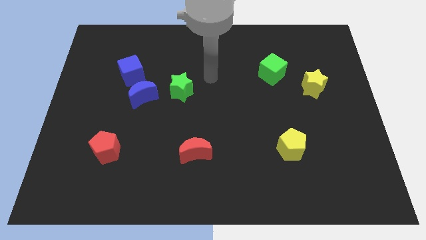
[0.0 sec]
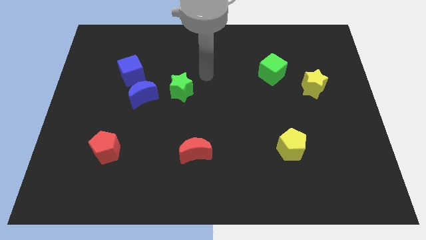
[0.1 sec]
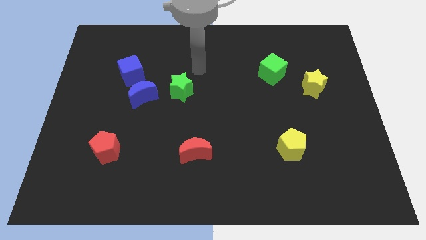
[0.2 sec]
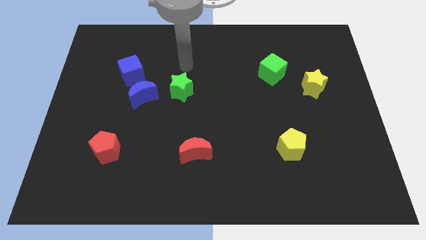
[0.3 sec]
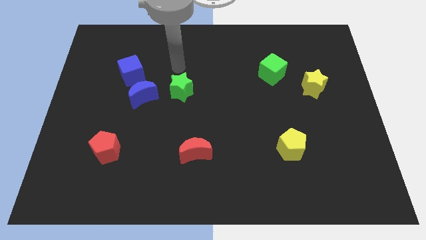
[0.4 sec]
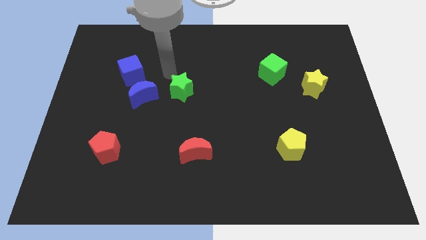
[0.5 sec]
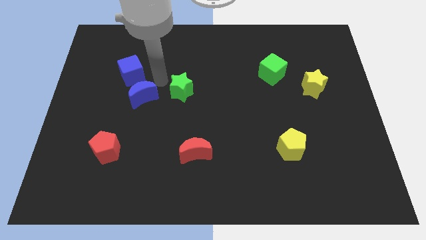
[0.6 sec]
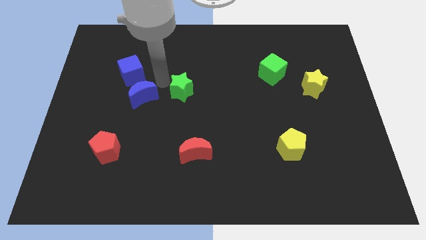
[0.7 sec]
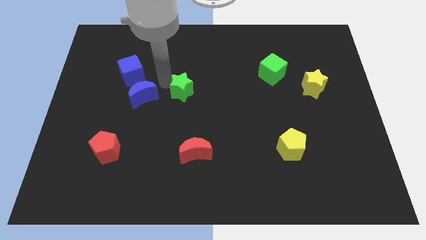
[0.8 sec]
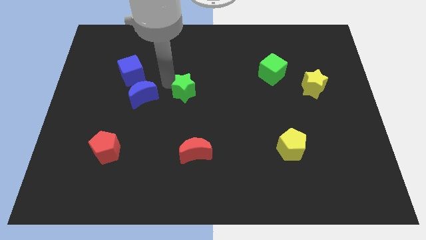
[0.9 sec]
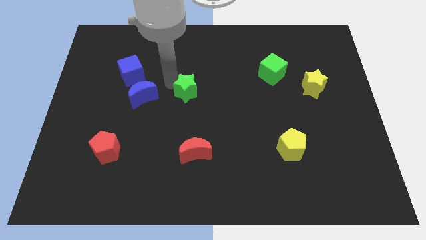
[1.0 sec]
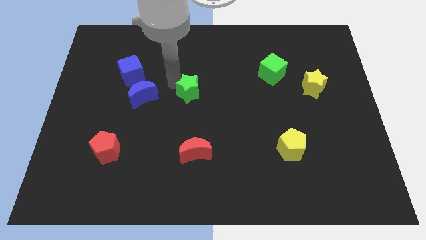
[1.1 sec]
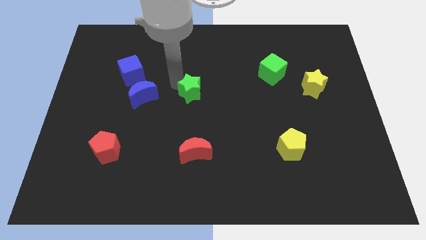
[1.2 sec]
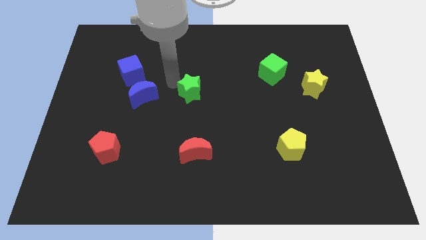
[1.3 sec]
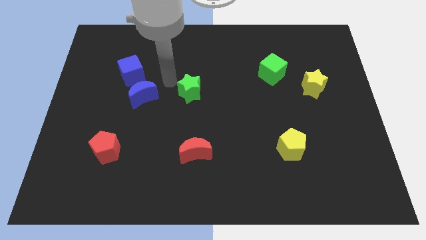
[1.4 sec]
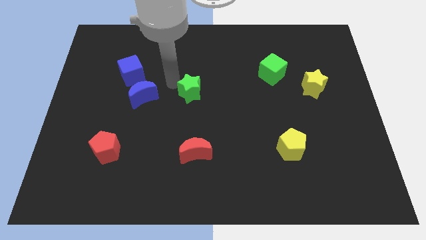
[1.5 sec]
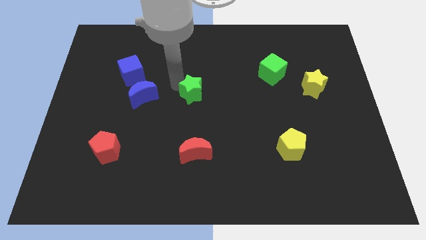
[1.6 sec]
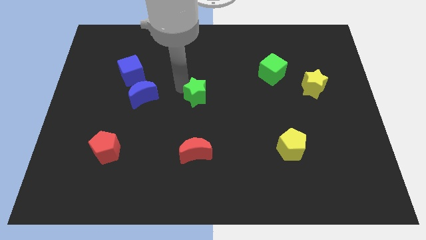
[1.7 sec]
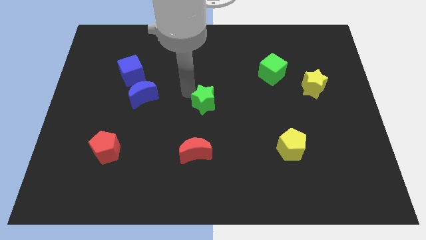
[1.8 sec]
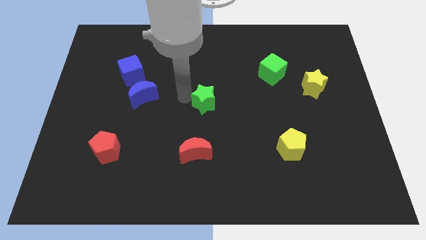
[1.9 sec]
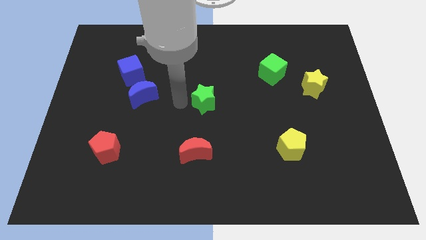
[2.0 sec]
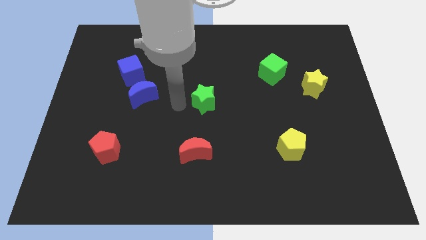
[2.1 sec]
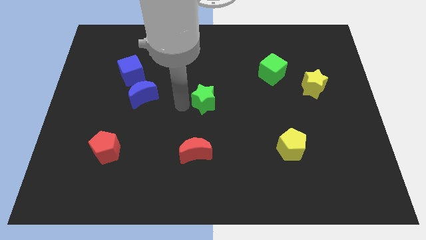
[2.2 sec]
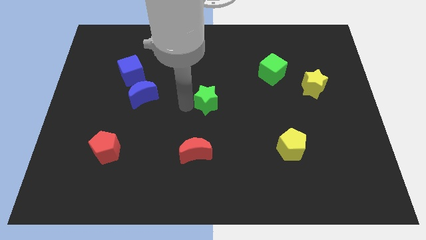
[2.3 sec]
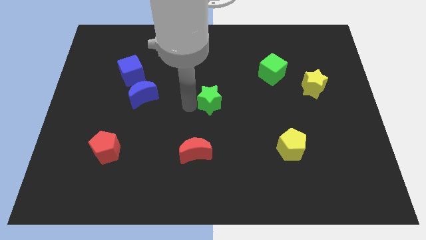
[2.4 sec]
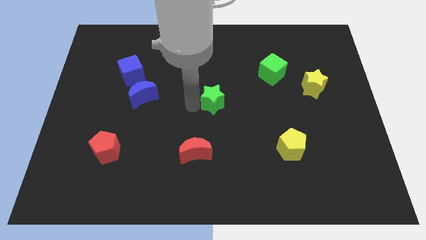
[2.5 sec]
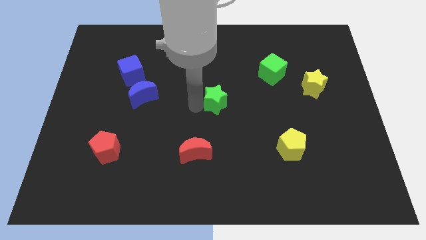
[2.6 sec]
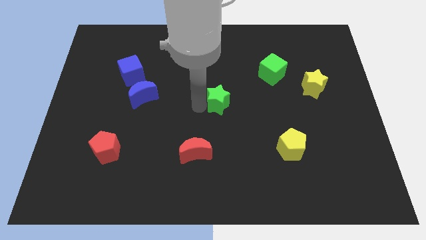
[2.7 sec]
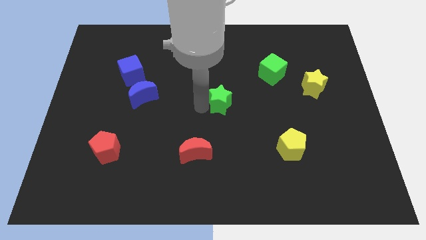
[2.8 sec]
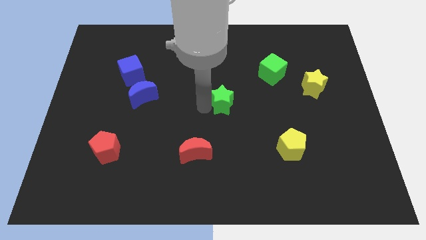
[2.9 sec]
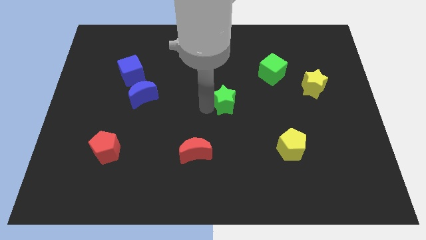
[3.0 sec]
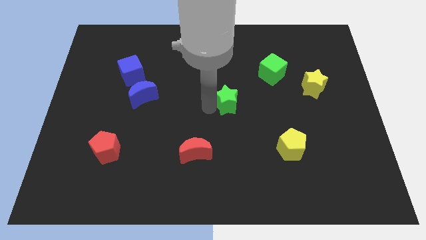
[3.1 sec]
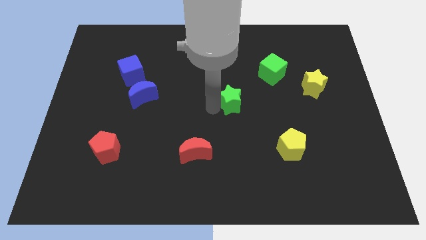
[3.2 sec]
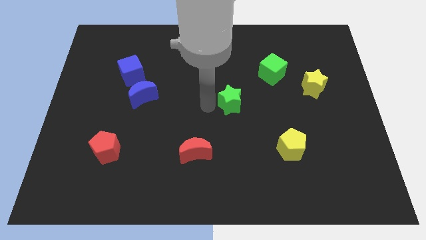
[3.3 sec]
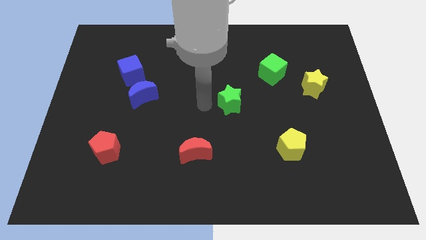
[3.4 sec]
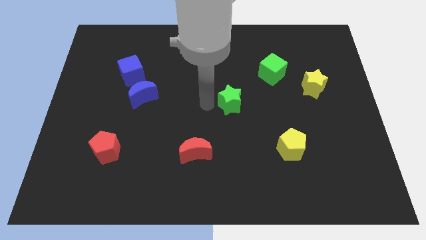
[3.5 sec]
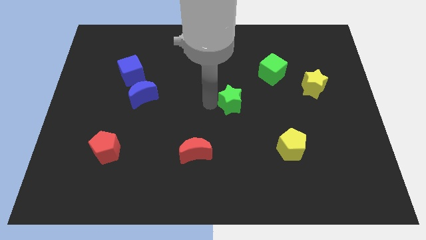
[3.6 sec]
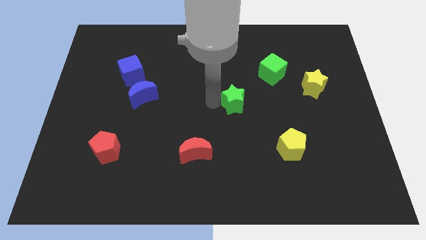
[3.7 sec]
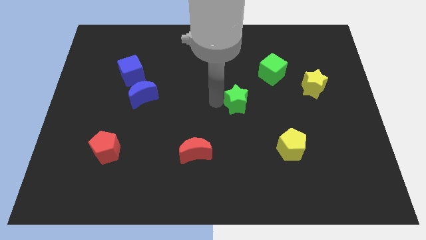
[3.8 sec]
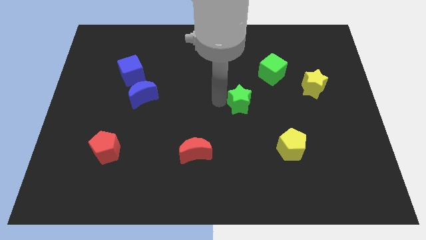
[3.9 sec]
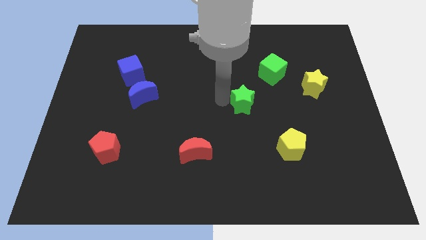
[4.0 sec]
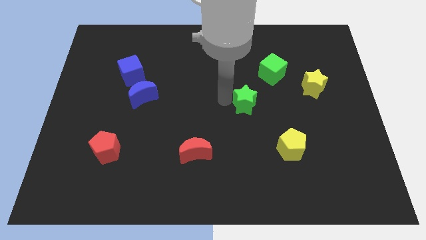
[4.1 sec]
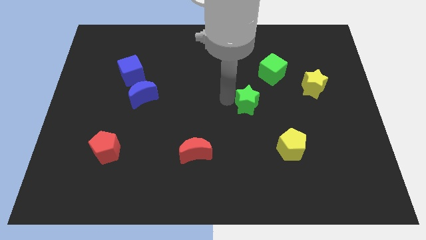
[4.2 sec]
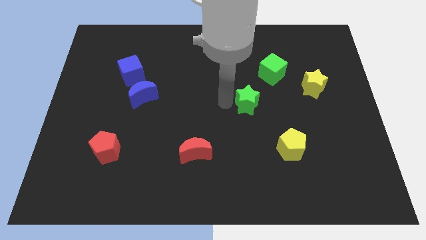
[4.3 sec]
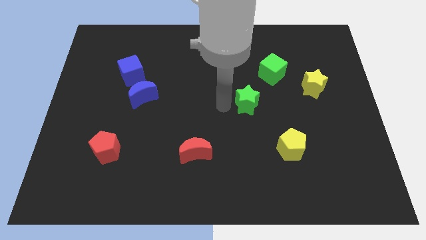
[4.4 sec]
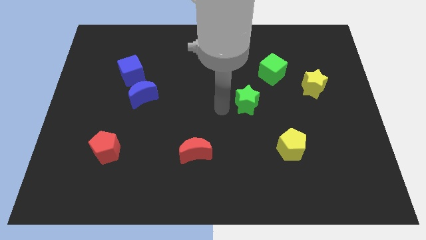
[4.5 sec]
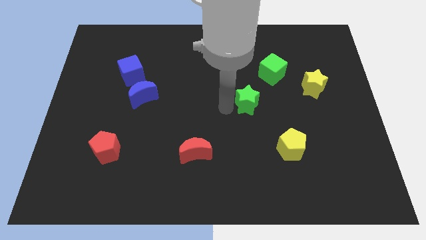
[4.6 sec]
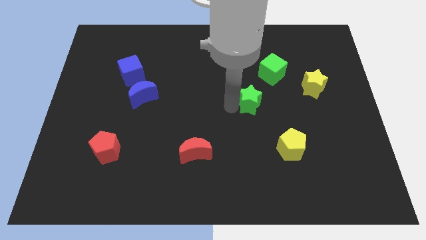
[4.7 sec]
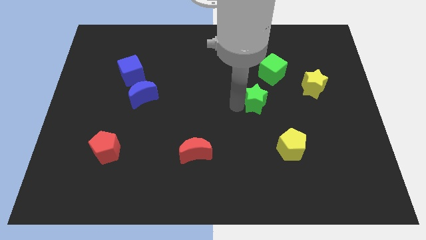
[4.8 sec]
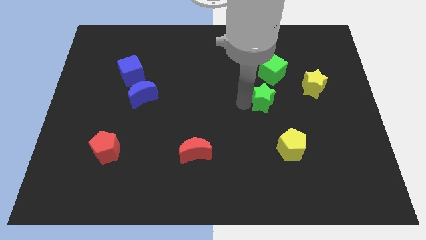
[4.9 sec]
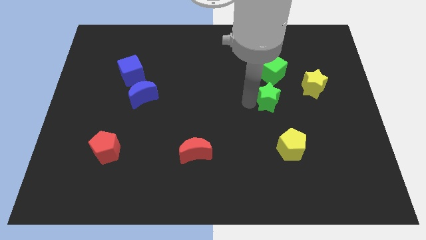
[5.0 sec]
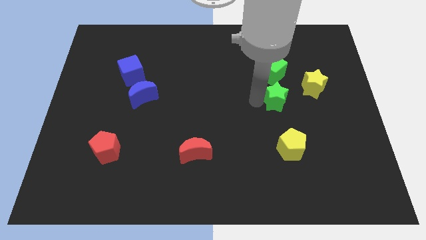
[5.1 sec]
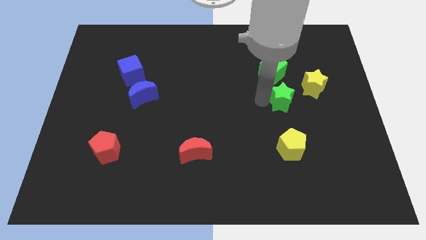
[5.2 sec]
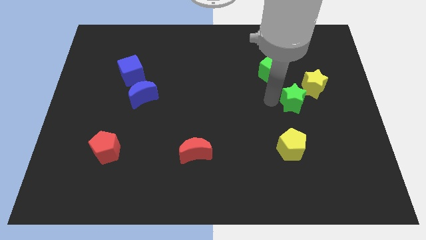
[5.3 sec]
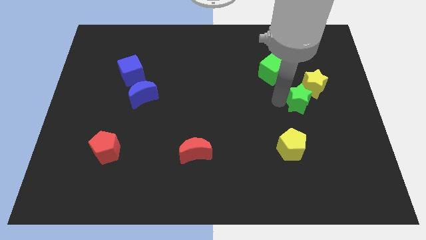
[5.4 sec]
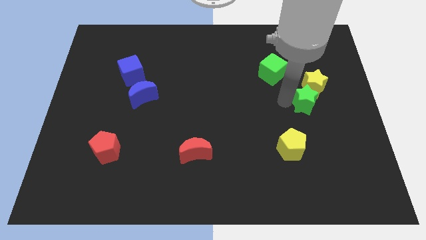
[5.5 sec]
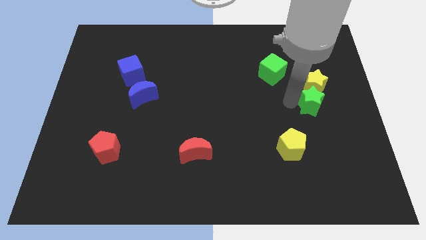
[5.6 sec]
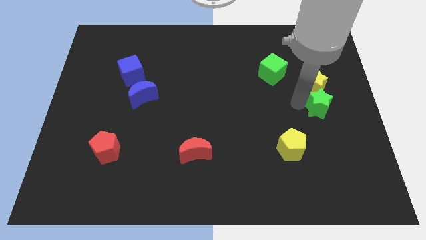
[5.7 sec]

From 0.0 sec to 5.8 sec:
move the green star to the right side

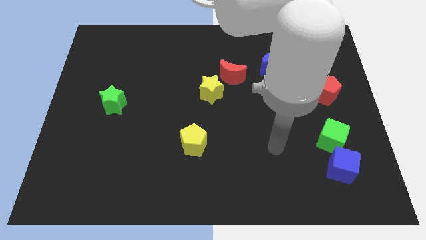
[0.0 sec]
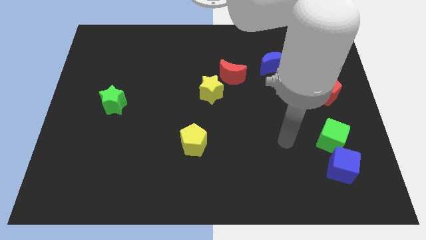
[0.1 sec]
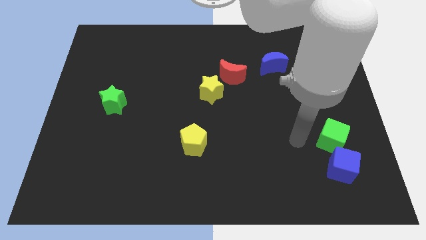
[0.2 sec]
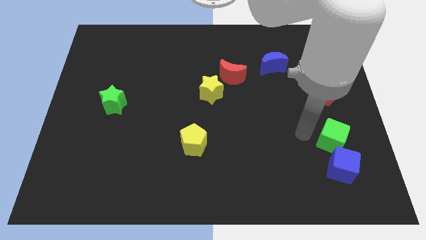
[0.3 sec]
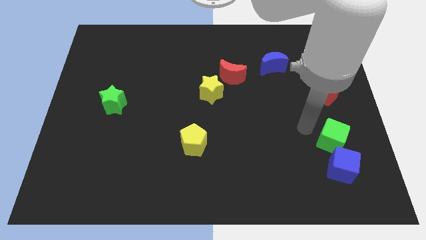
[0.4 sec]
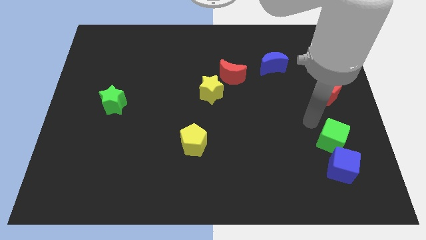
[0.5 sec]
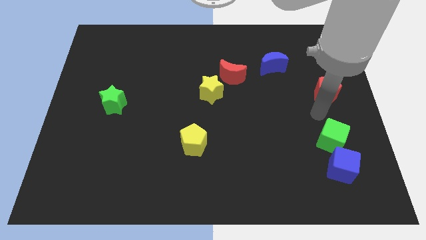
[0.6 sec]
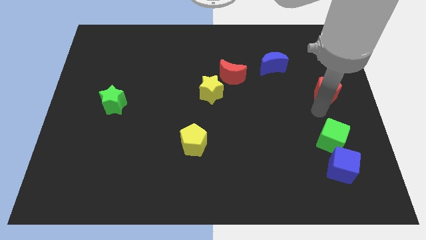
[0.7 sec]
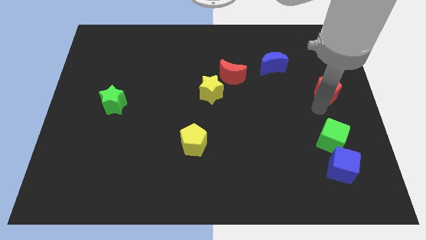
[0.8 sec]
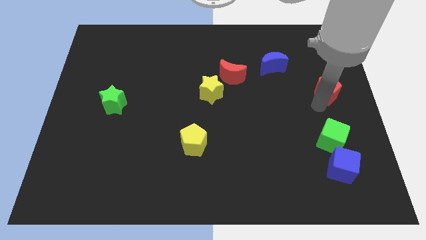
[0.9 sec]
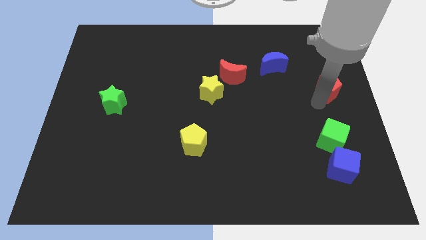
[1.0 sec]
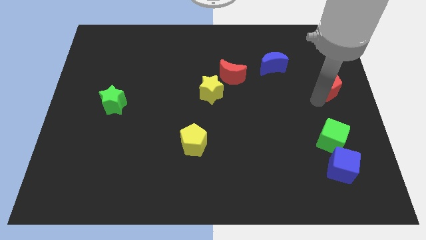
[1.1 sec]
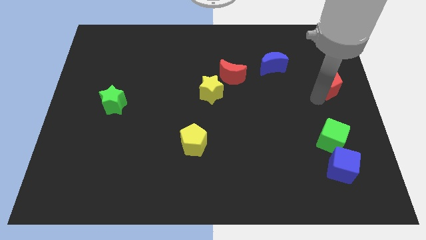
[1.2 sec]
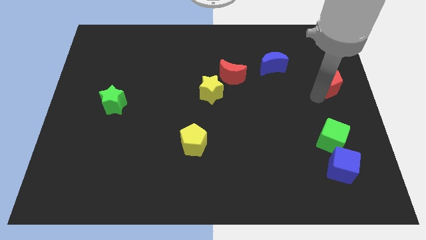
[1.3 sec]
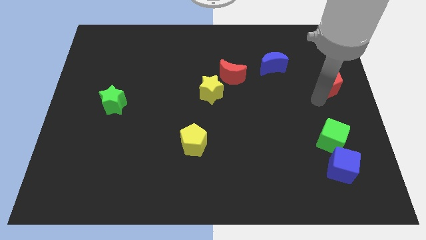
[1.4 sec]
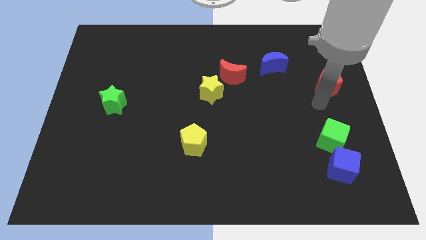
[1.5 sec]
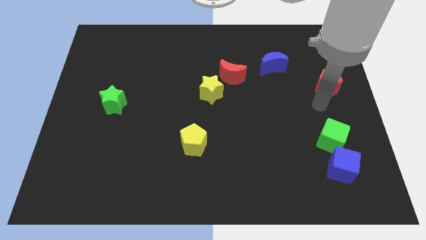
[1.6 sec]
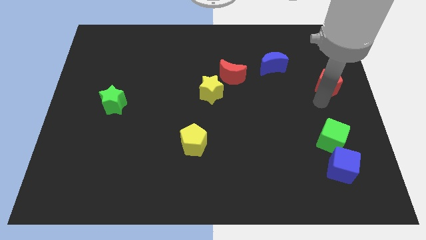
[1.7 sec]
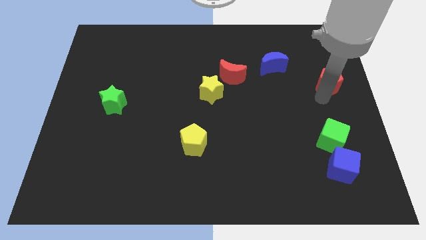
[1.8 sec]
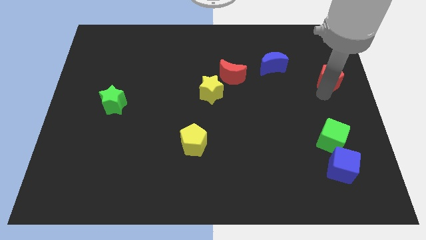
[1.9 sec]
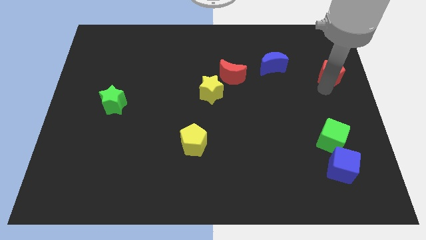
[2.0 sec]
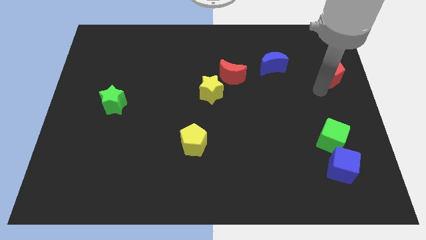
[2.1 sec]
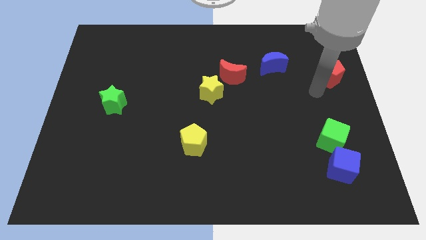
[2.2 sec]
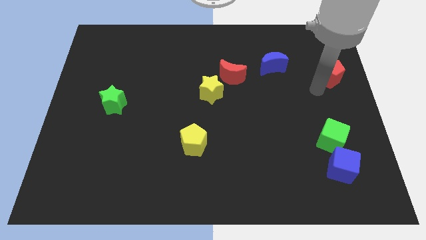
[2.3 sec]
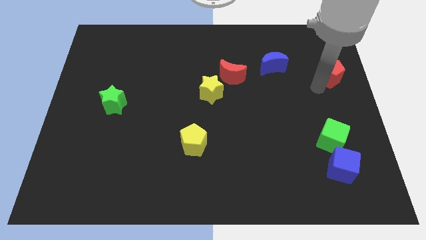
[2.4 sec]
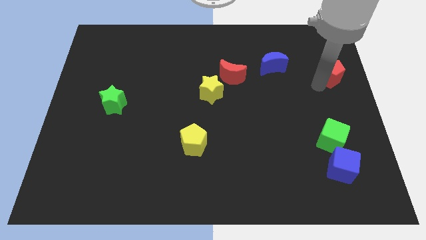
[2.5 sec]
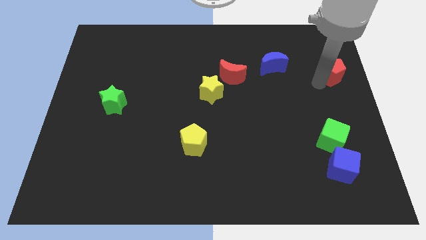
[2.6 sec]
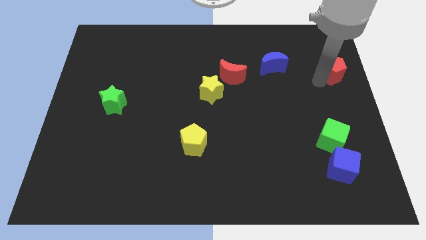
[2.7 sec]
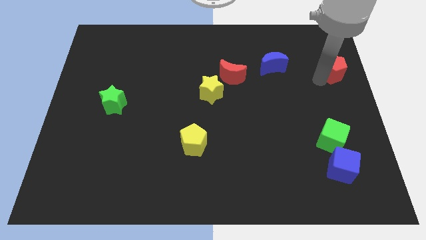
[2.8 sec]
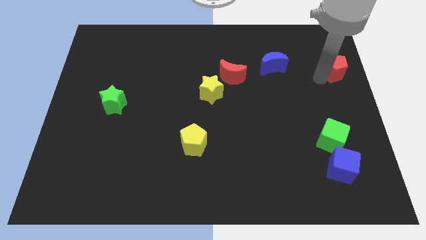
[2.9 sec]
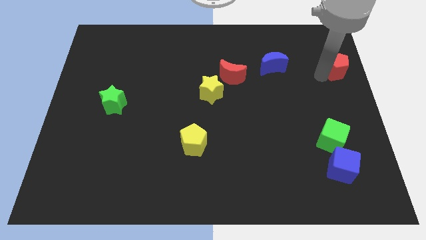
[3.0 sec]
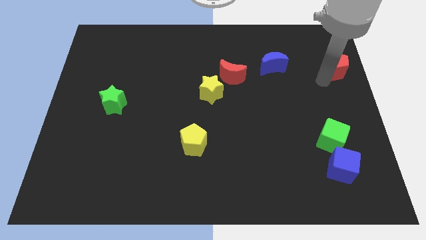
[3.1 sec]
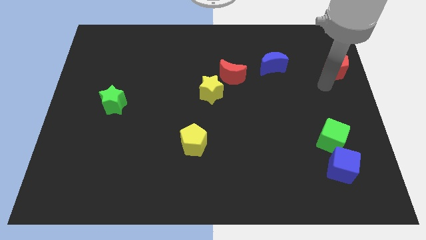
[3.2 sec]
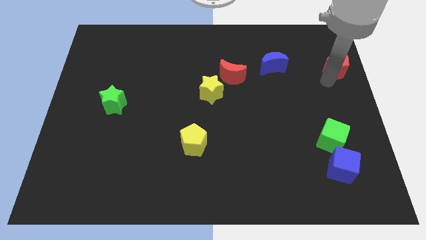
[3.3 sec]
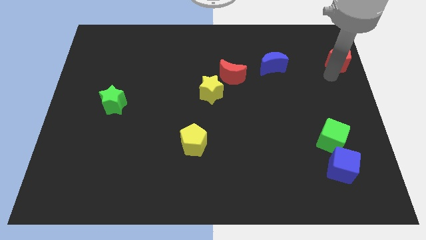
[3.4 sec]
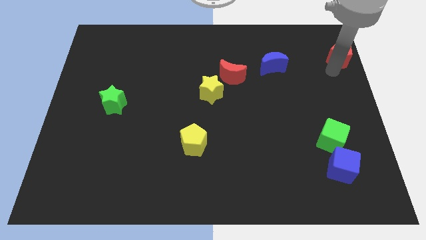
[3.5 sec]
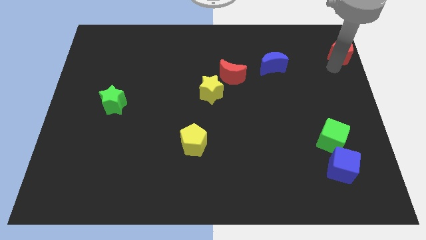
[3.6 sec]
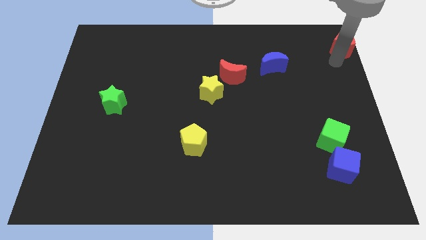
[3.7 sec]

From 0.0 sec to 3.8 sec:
push the red pentagon to the upper right corner
